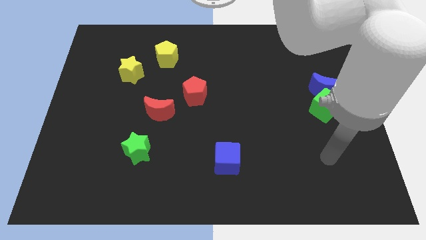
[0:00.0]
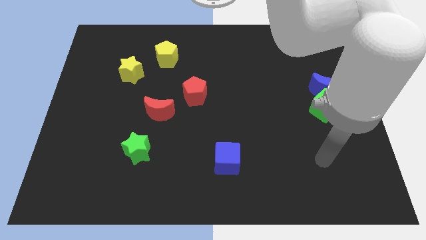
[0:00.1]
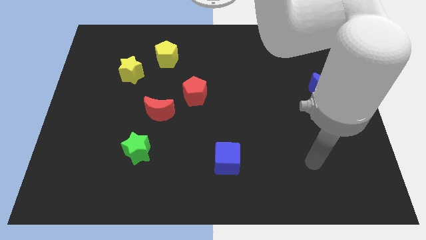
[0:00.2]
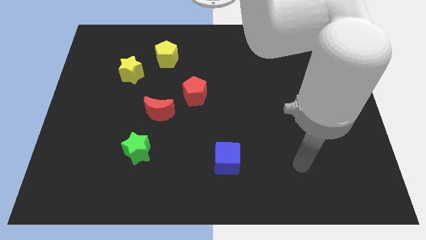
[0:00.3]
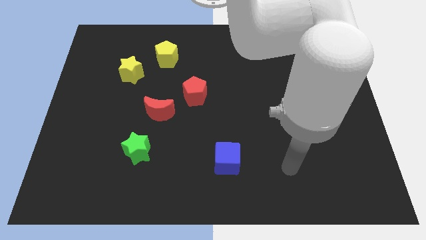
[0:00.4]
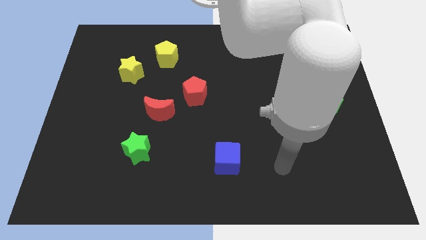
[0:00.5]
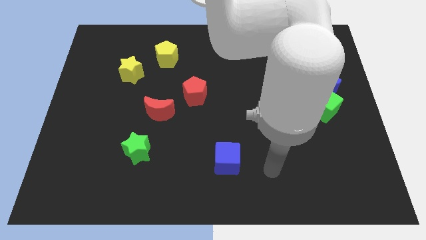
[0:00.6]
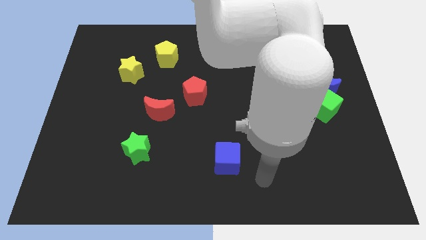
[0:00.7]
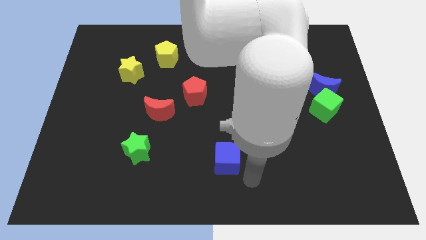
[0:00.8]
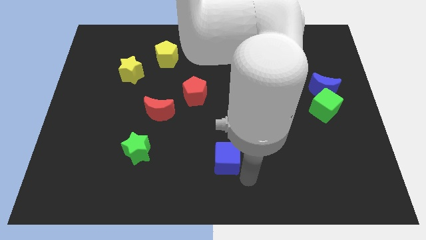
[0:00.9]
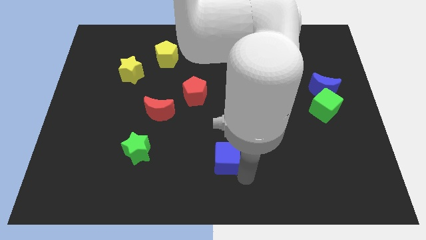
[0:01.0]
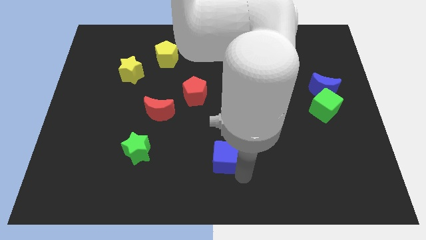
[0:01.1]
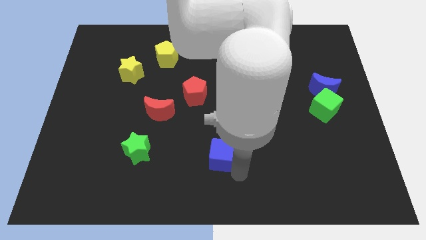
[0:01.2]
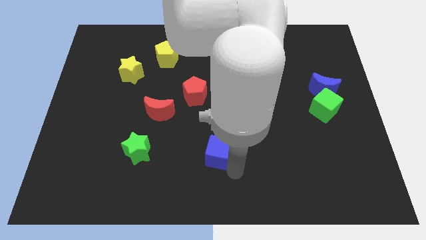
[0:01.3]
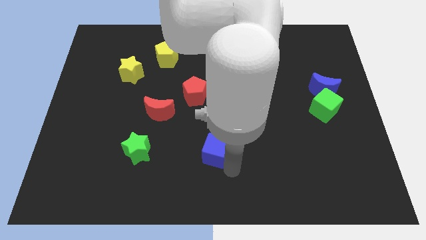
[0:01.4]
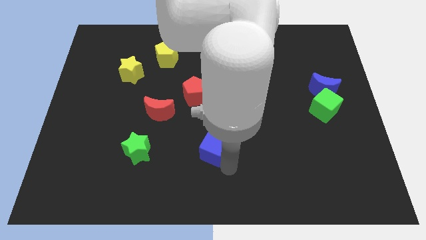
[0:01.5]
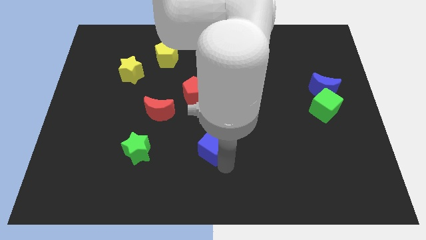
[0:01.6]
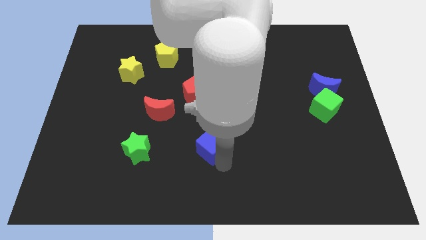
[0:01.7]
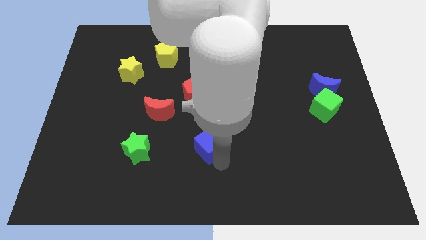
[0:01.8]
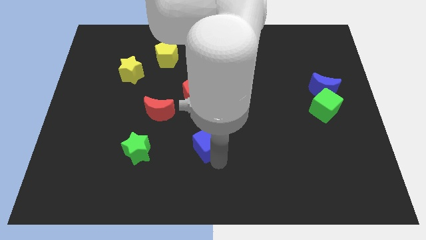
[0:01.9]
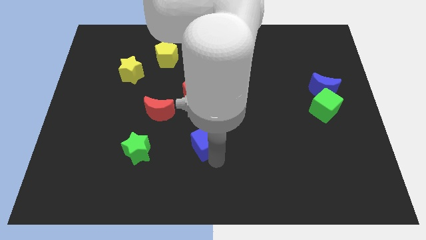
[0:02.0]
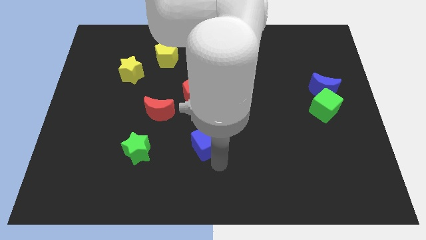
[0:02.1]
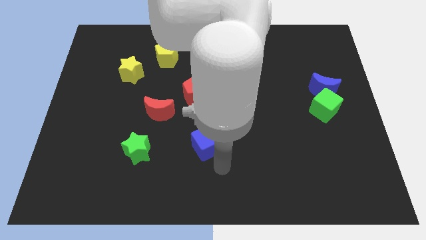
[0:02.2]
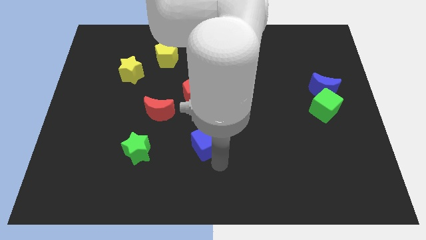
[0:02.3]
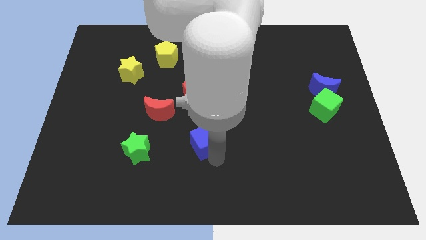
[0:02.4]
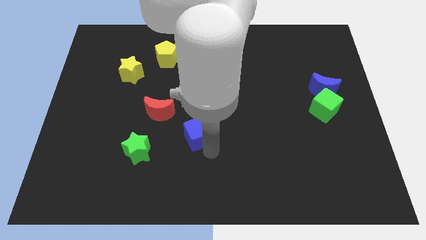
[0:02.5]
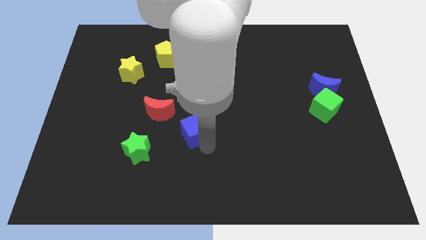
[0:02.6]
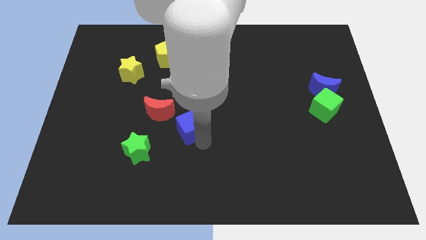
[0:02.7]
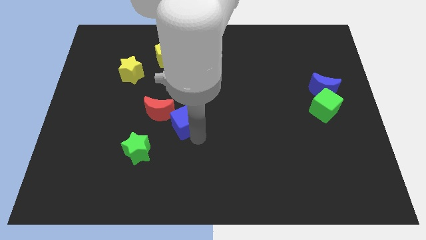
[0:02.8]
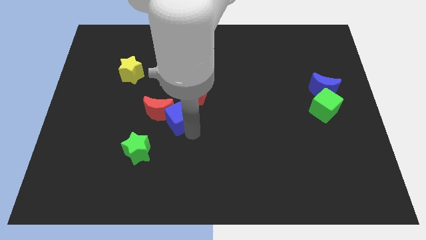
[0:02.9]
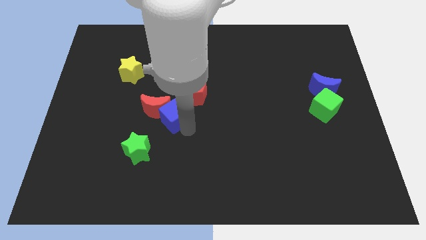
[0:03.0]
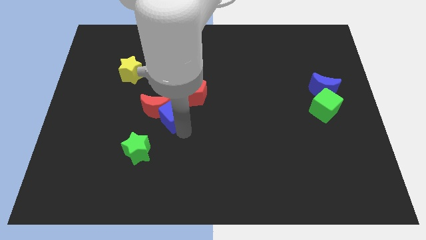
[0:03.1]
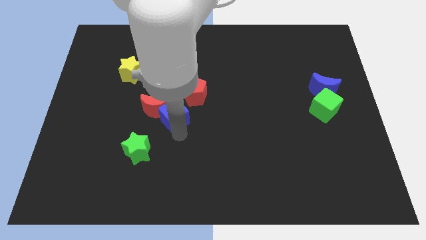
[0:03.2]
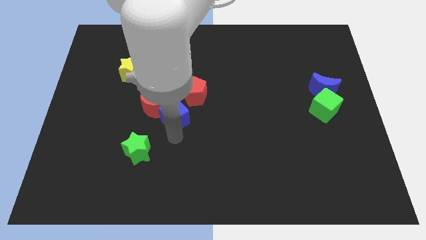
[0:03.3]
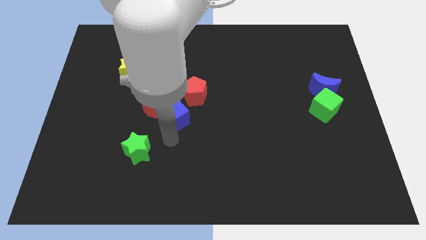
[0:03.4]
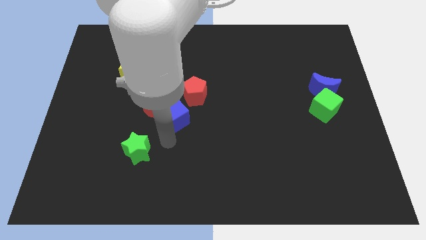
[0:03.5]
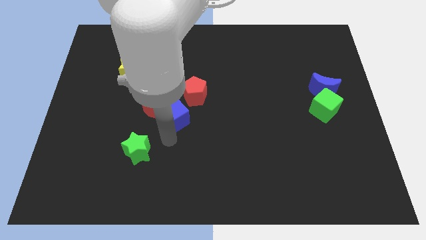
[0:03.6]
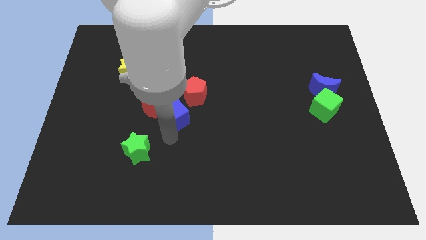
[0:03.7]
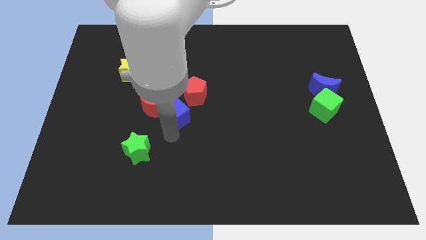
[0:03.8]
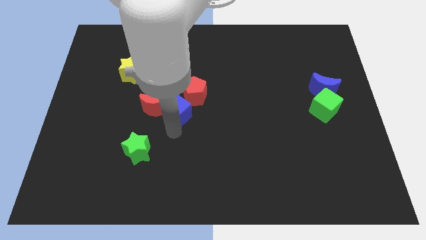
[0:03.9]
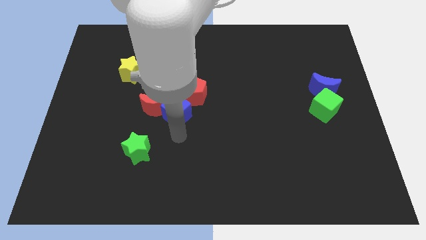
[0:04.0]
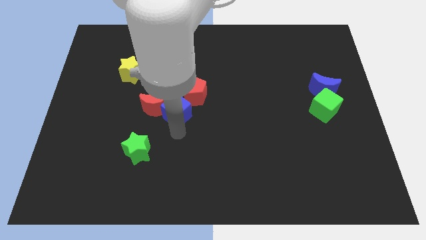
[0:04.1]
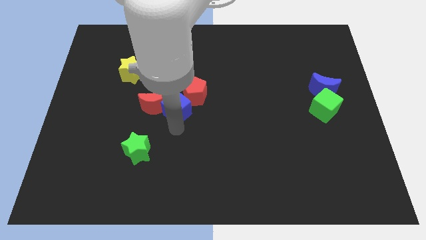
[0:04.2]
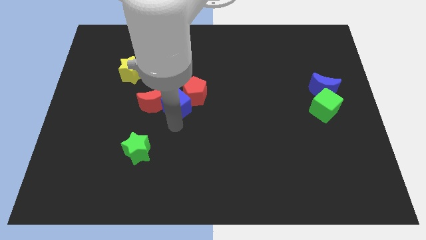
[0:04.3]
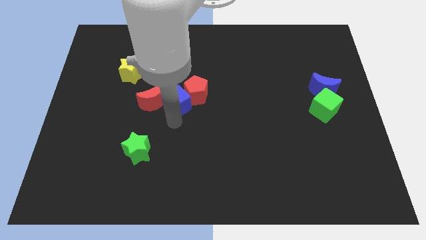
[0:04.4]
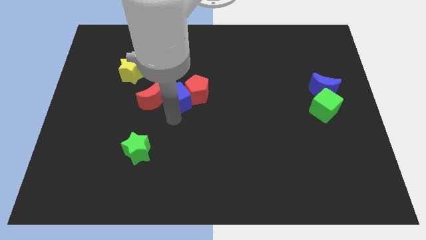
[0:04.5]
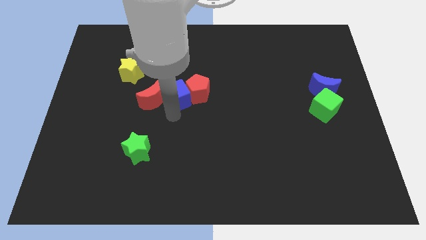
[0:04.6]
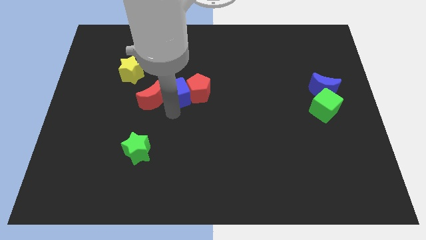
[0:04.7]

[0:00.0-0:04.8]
move the blue cube diagonally up and to the left of the red pentagon

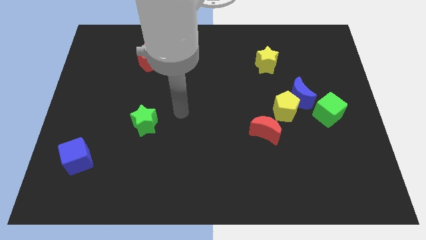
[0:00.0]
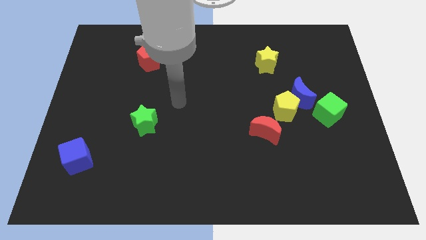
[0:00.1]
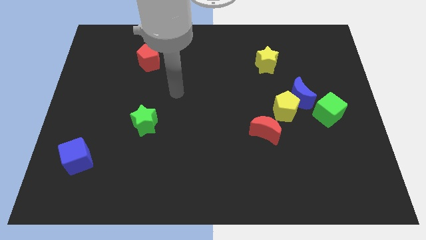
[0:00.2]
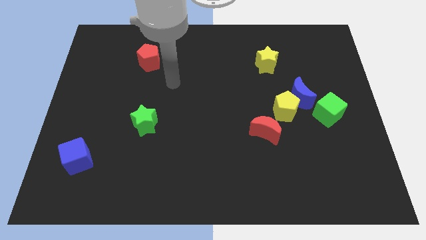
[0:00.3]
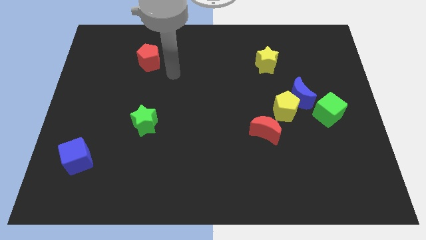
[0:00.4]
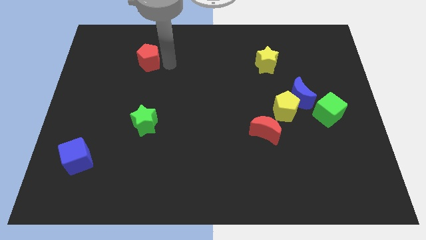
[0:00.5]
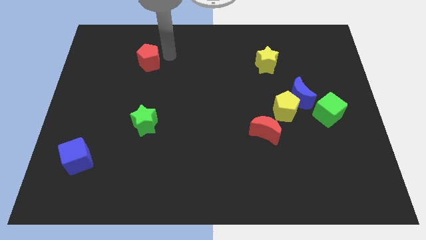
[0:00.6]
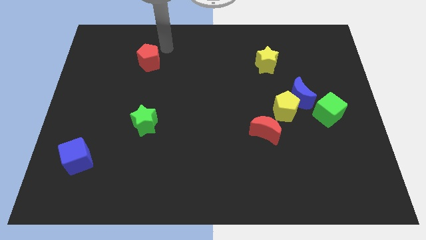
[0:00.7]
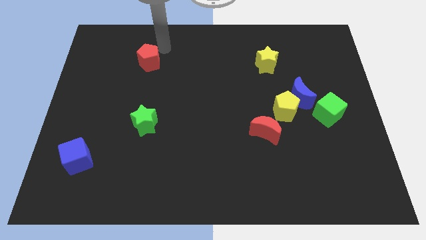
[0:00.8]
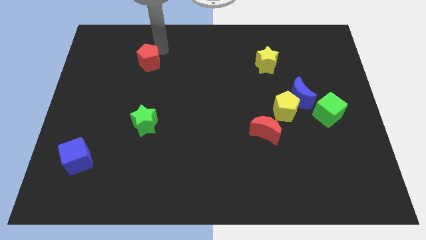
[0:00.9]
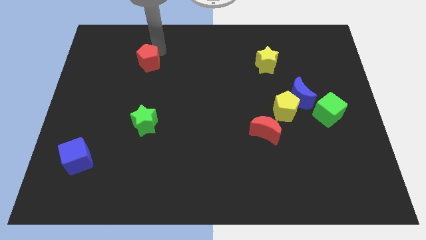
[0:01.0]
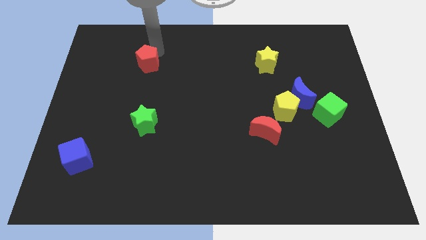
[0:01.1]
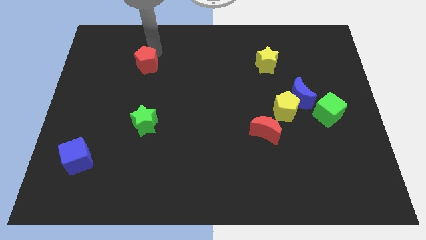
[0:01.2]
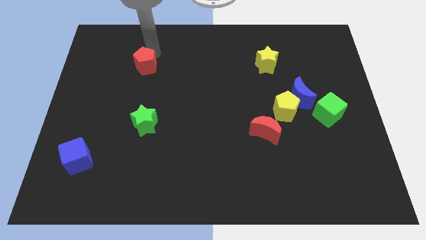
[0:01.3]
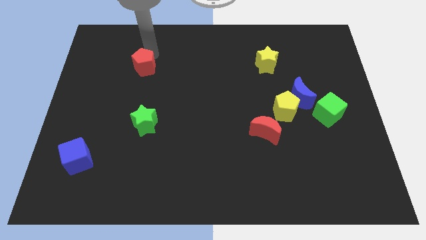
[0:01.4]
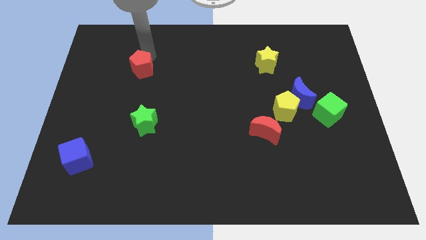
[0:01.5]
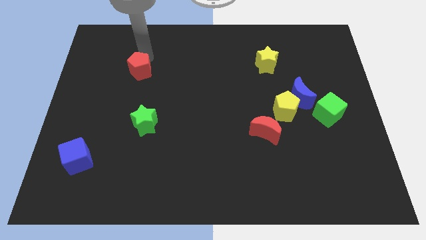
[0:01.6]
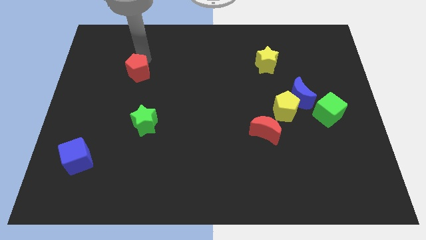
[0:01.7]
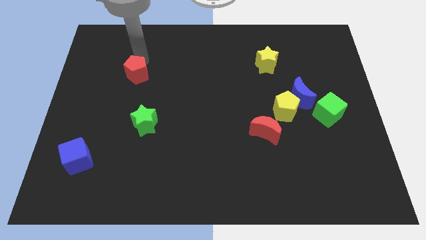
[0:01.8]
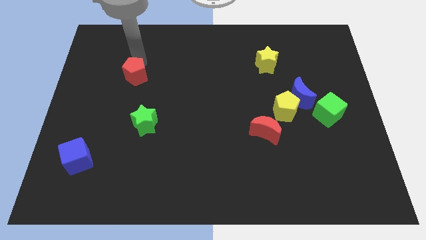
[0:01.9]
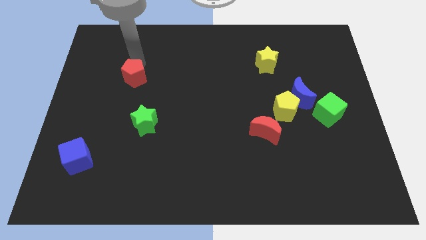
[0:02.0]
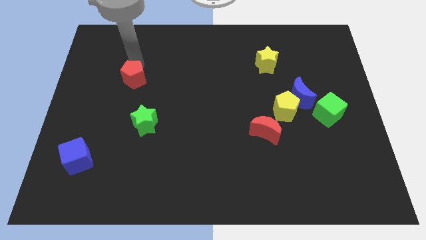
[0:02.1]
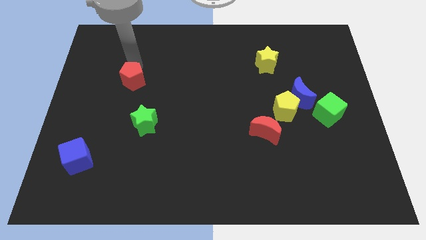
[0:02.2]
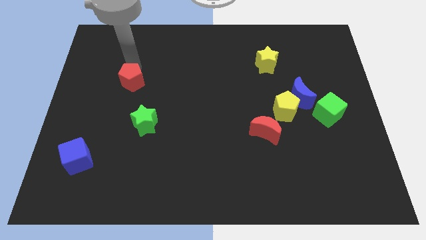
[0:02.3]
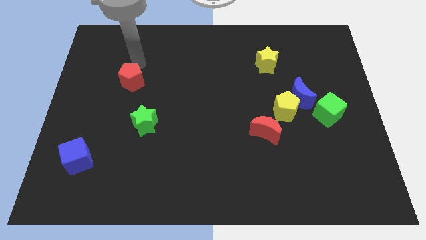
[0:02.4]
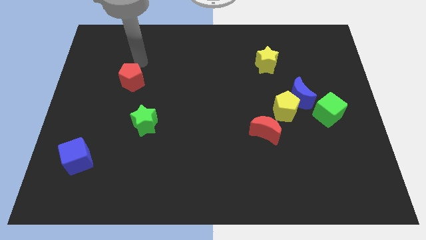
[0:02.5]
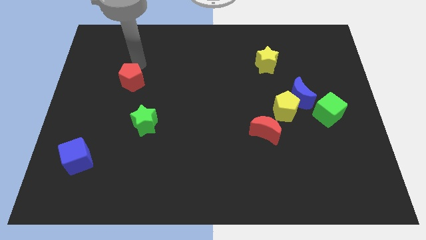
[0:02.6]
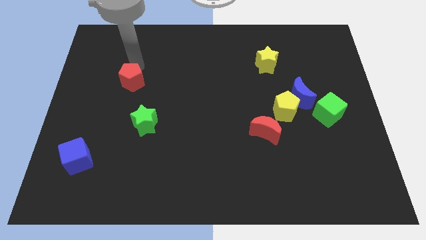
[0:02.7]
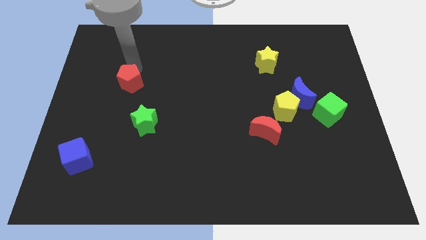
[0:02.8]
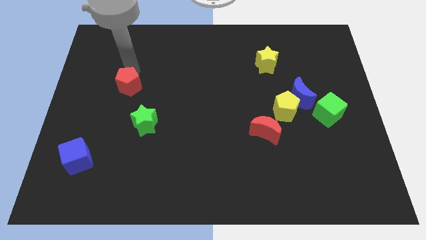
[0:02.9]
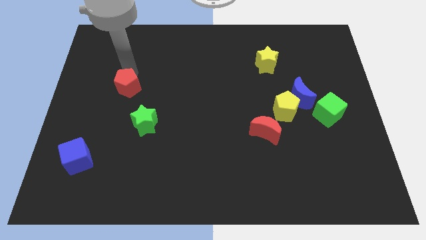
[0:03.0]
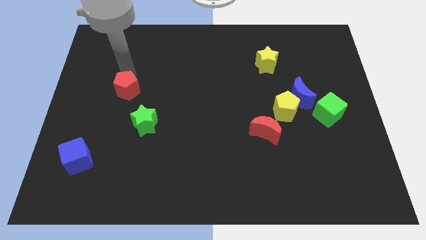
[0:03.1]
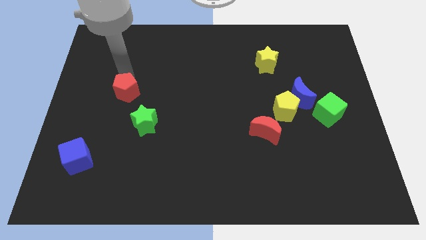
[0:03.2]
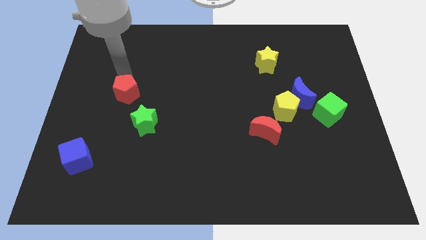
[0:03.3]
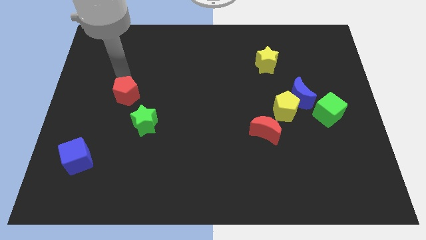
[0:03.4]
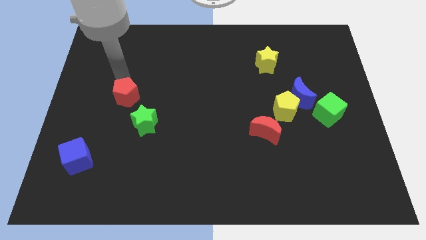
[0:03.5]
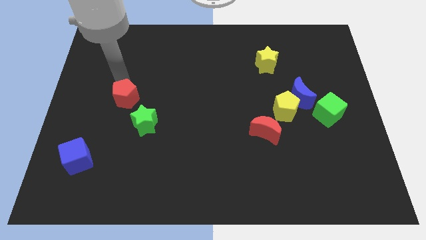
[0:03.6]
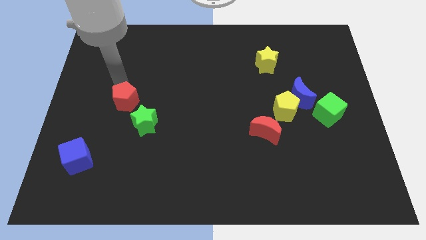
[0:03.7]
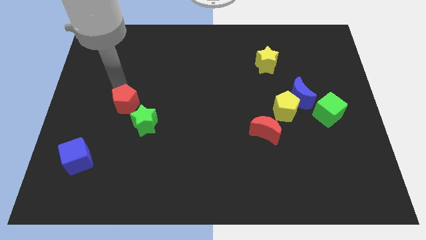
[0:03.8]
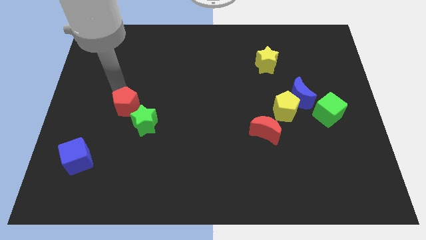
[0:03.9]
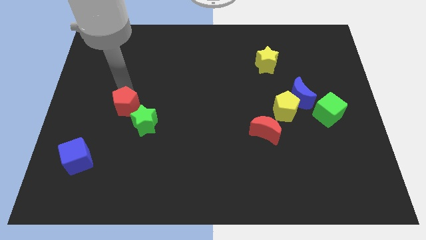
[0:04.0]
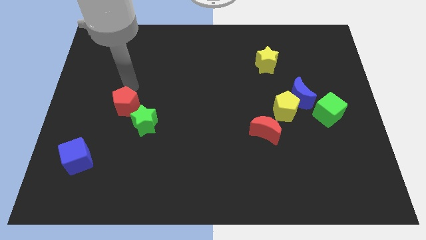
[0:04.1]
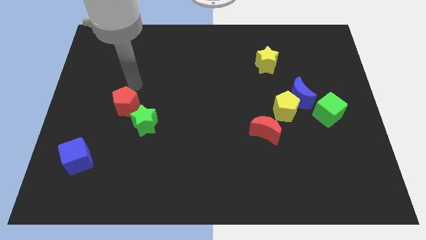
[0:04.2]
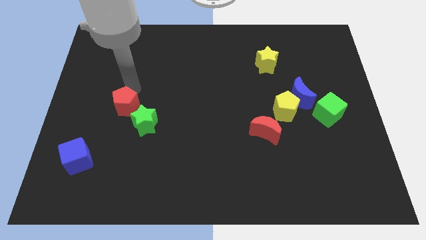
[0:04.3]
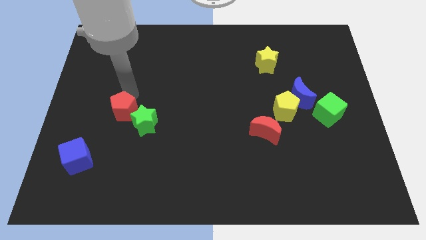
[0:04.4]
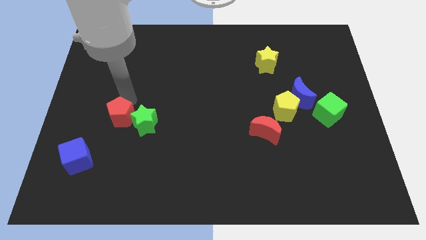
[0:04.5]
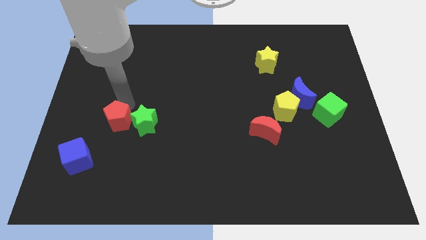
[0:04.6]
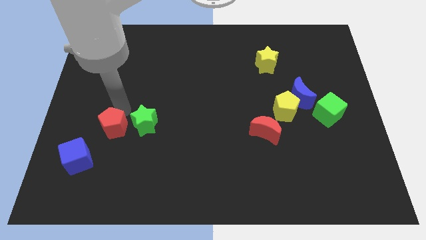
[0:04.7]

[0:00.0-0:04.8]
slide the red pentagon diagonally down and to the left of the green star
